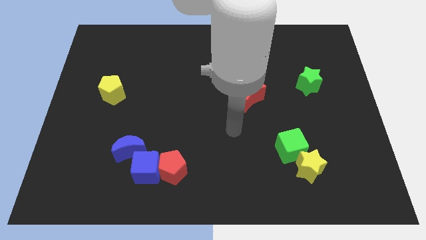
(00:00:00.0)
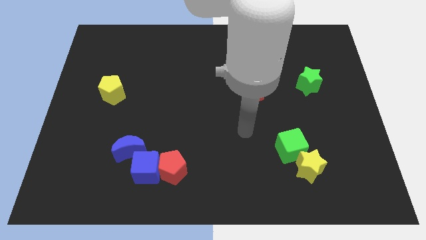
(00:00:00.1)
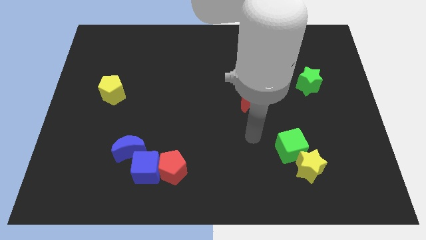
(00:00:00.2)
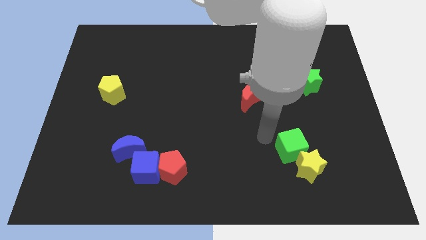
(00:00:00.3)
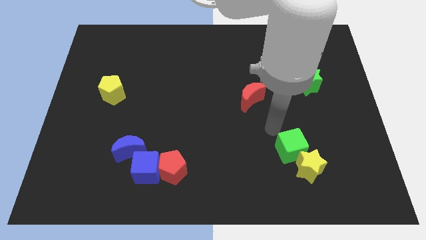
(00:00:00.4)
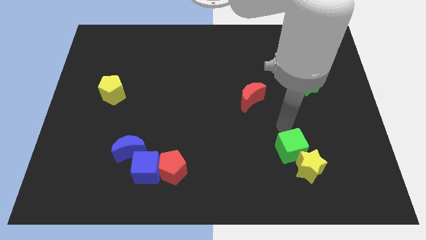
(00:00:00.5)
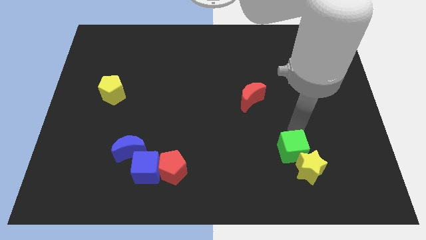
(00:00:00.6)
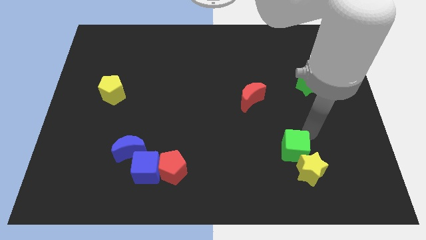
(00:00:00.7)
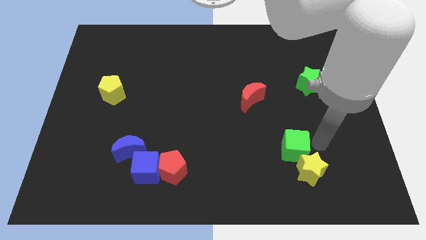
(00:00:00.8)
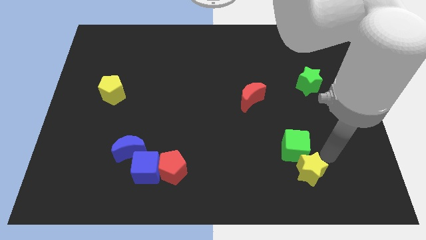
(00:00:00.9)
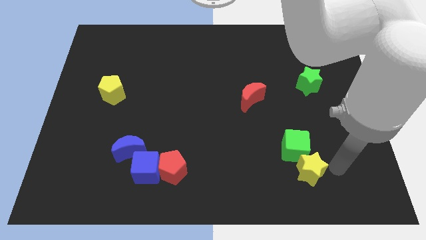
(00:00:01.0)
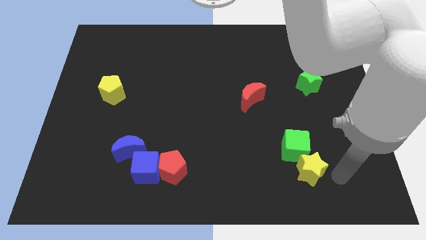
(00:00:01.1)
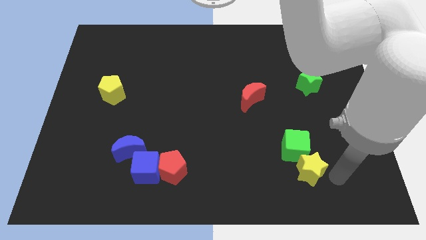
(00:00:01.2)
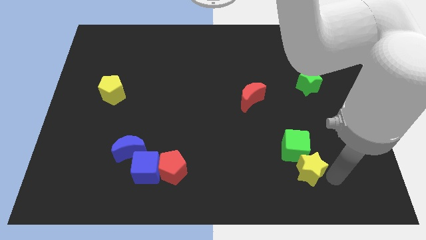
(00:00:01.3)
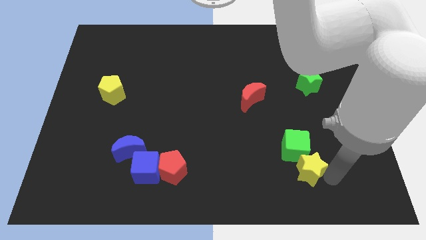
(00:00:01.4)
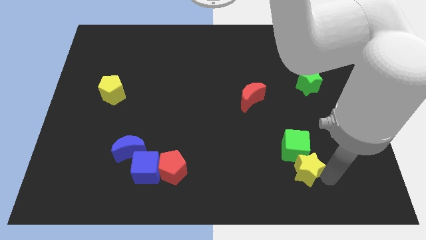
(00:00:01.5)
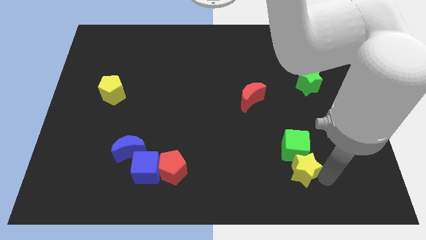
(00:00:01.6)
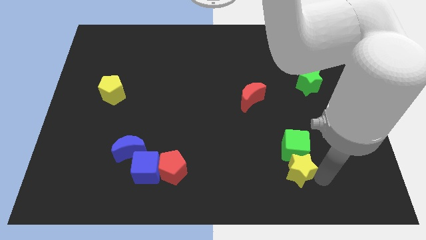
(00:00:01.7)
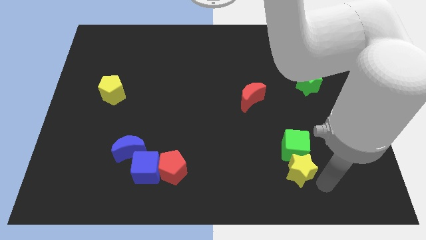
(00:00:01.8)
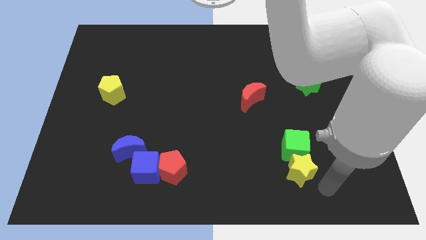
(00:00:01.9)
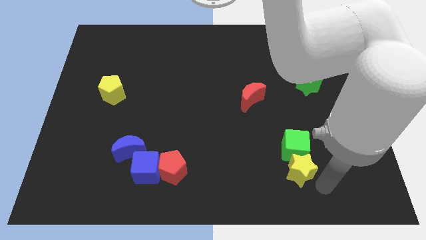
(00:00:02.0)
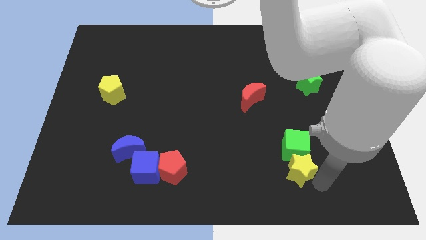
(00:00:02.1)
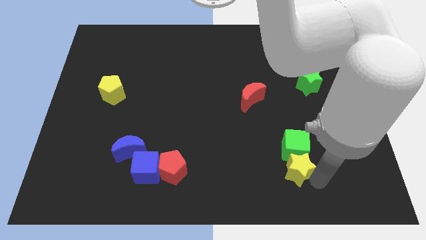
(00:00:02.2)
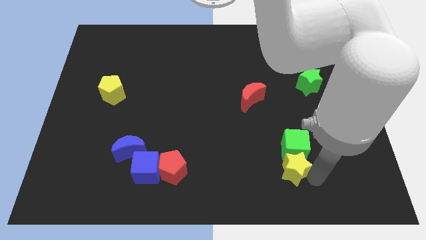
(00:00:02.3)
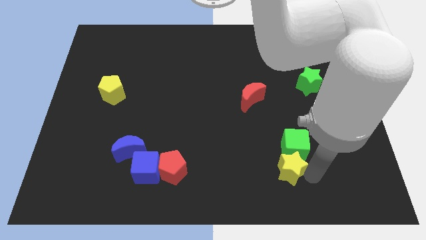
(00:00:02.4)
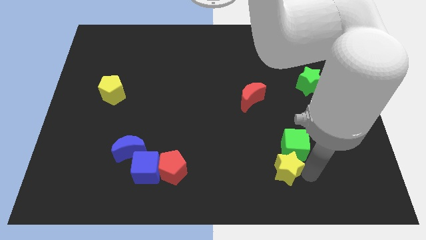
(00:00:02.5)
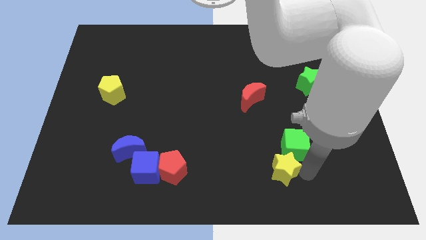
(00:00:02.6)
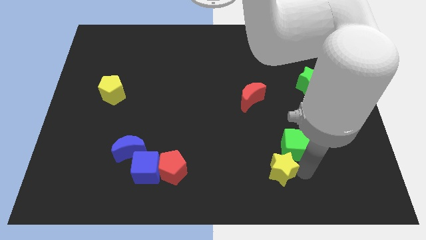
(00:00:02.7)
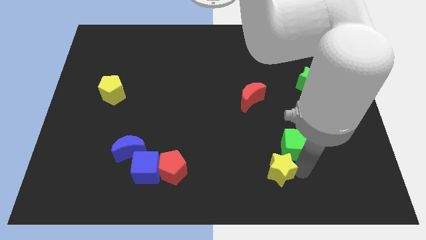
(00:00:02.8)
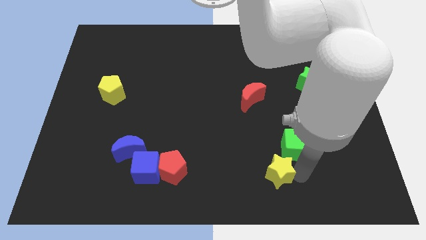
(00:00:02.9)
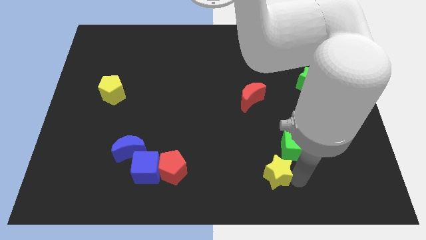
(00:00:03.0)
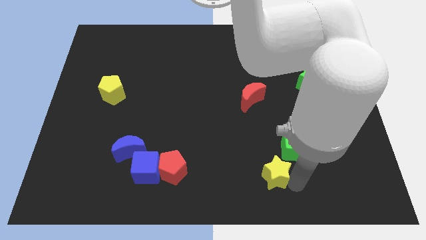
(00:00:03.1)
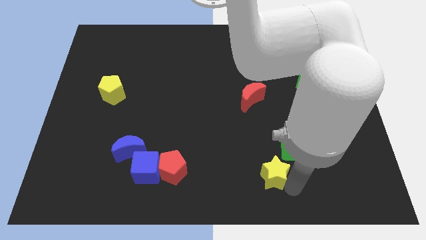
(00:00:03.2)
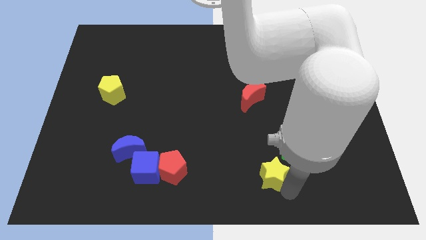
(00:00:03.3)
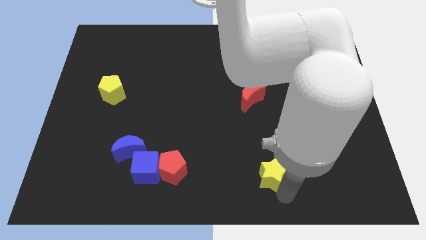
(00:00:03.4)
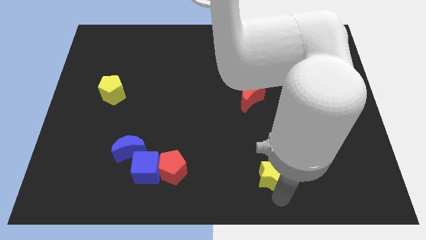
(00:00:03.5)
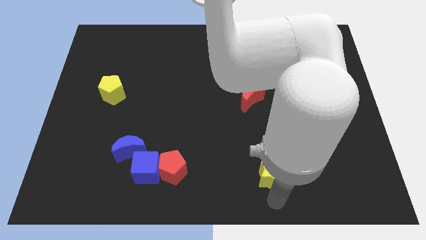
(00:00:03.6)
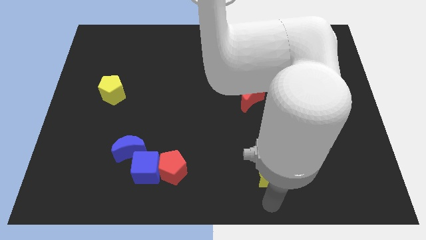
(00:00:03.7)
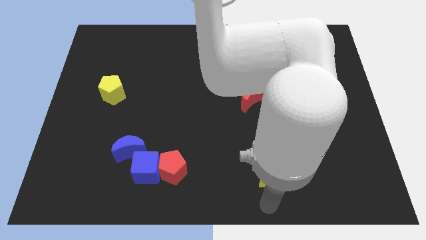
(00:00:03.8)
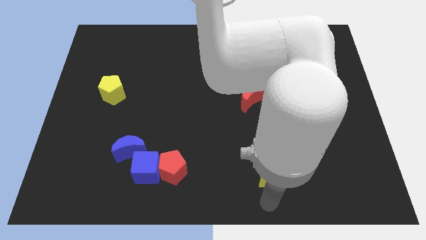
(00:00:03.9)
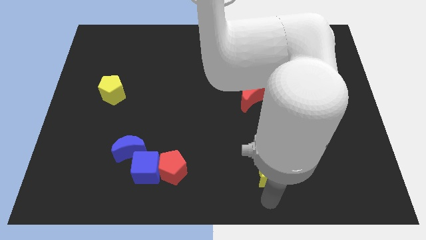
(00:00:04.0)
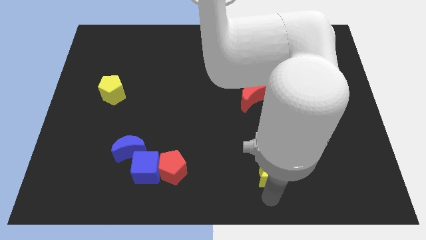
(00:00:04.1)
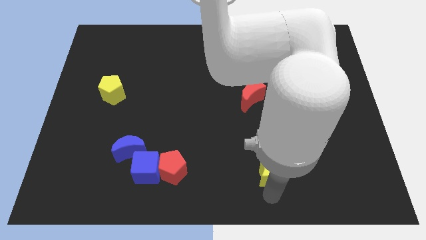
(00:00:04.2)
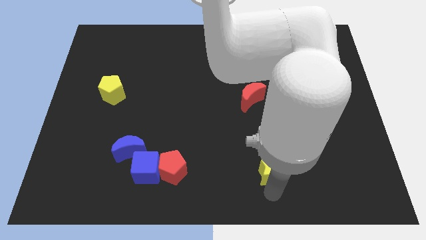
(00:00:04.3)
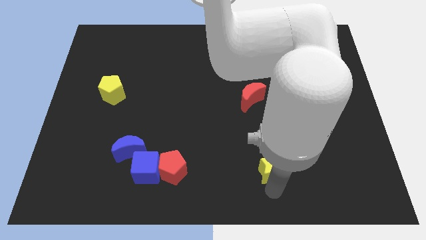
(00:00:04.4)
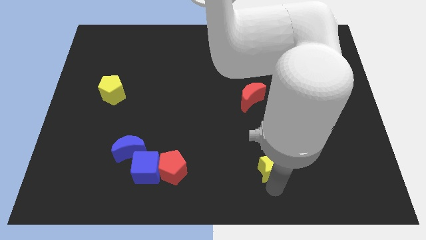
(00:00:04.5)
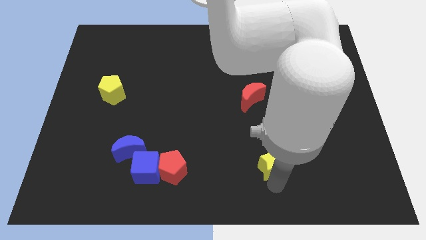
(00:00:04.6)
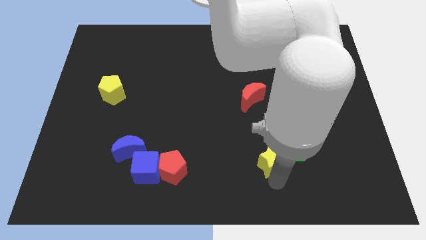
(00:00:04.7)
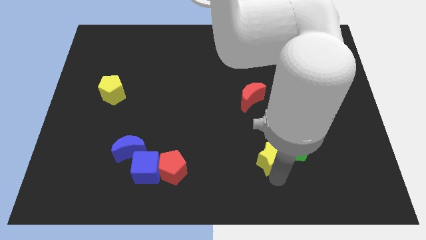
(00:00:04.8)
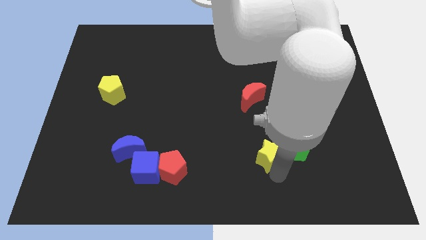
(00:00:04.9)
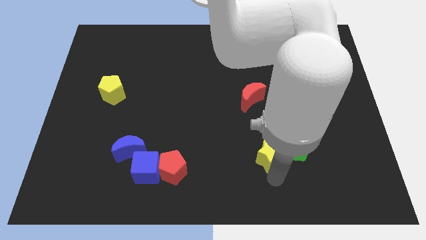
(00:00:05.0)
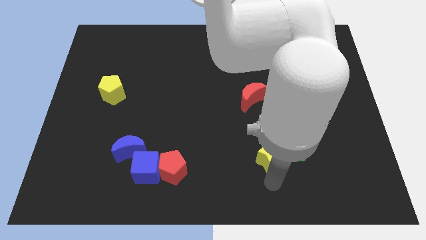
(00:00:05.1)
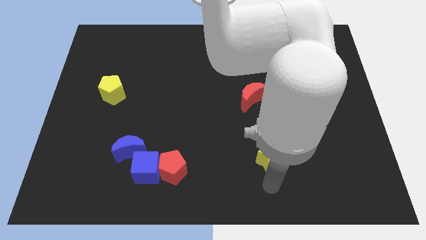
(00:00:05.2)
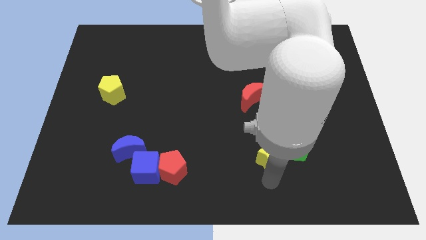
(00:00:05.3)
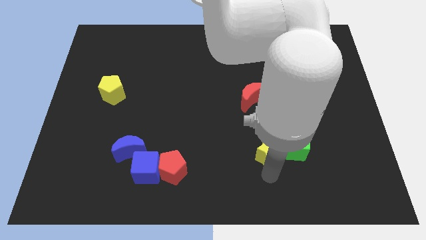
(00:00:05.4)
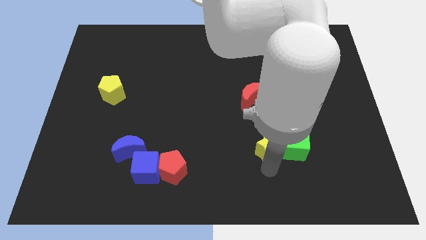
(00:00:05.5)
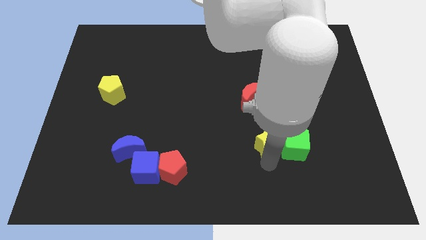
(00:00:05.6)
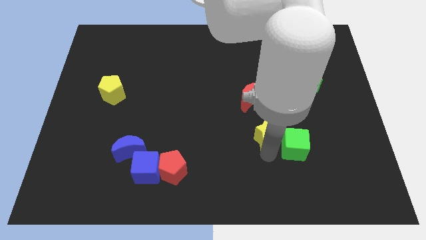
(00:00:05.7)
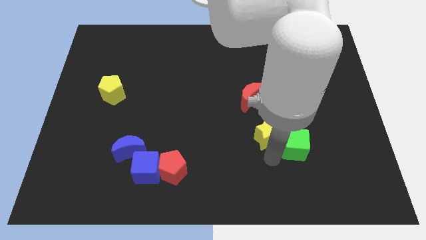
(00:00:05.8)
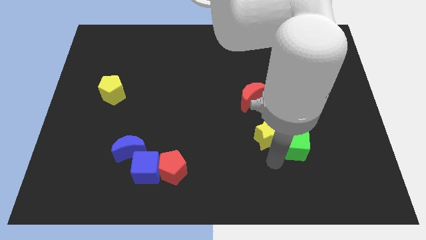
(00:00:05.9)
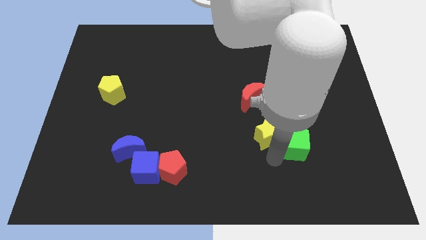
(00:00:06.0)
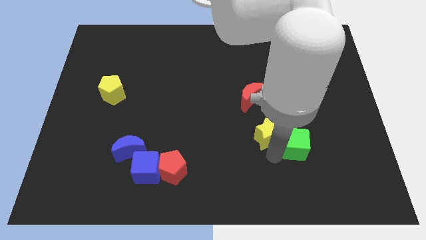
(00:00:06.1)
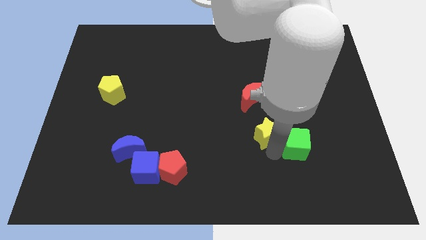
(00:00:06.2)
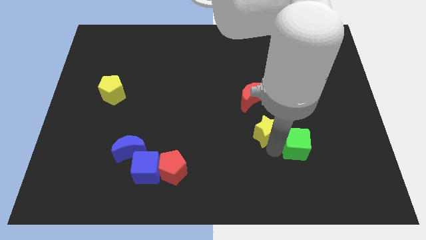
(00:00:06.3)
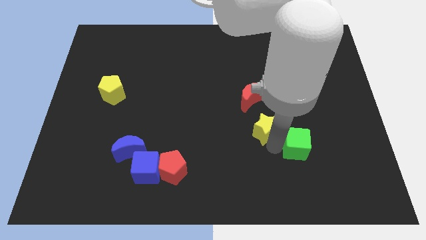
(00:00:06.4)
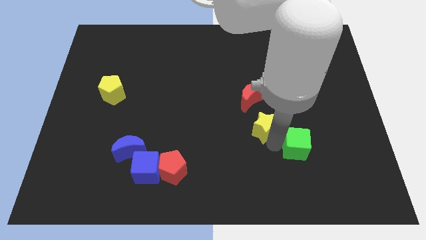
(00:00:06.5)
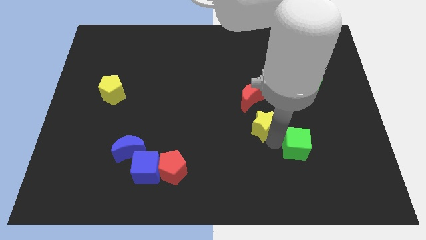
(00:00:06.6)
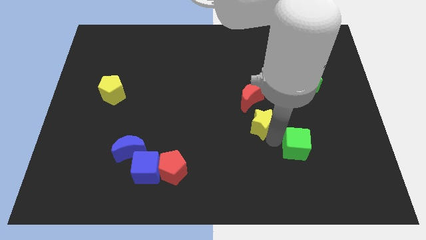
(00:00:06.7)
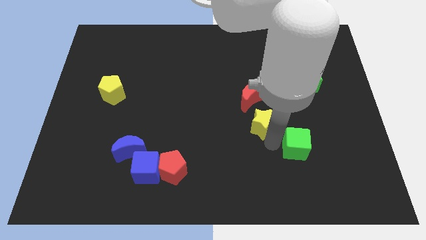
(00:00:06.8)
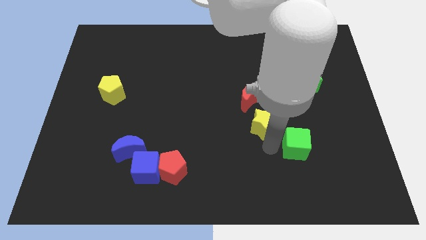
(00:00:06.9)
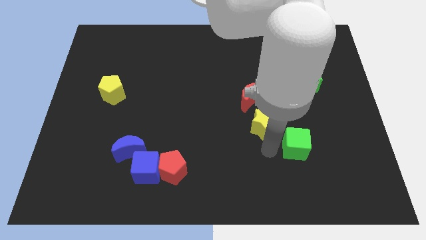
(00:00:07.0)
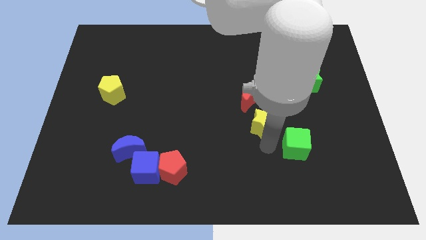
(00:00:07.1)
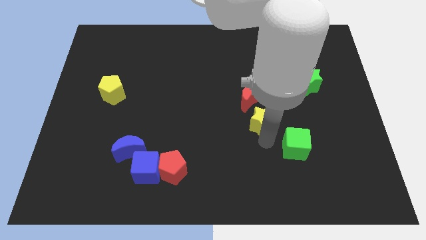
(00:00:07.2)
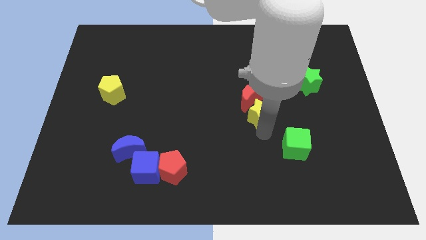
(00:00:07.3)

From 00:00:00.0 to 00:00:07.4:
put the yellow star close to the red moon
